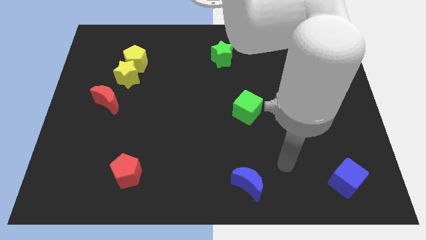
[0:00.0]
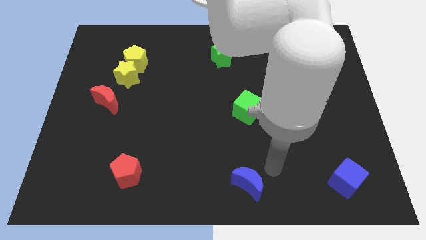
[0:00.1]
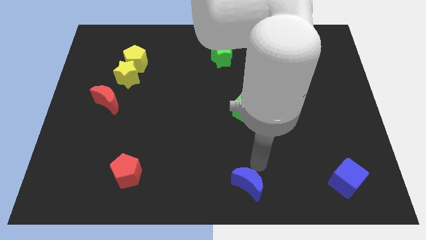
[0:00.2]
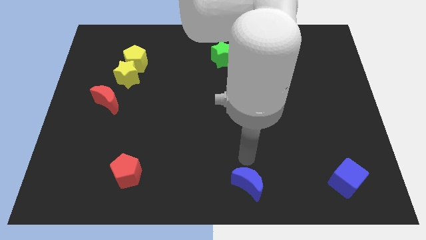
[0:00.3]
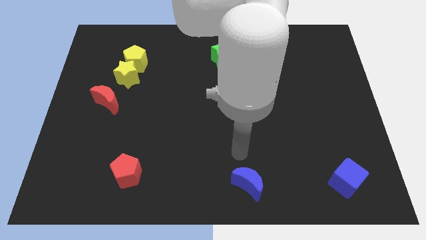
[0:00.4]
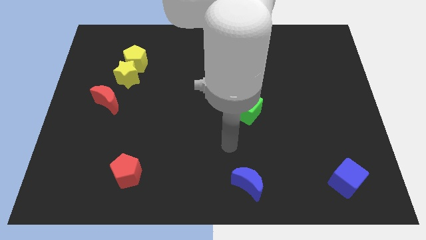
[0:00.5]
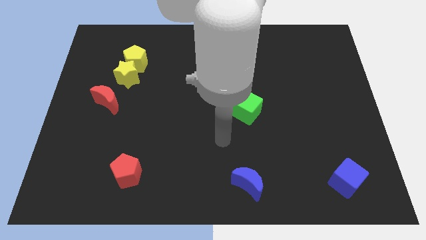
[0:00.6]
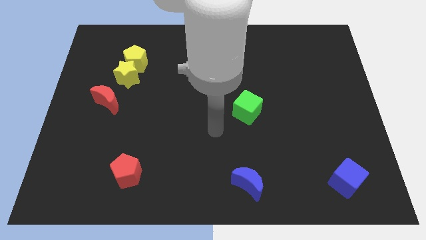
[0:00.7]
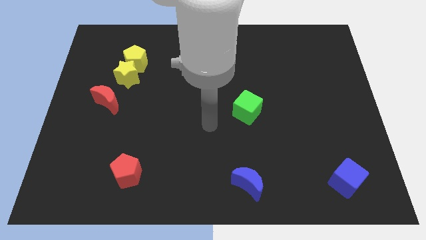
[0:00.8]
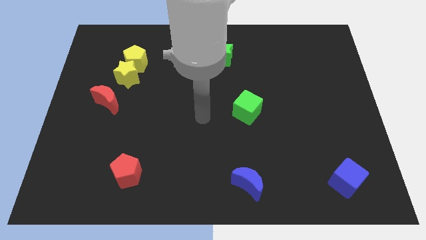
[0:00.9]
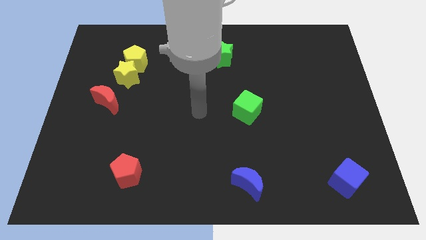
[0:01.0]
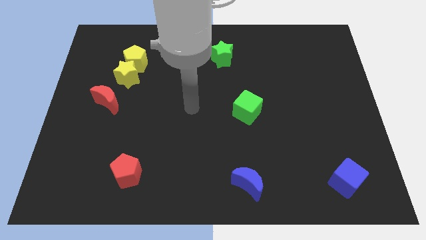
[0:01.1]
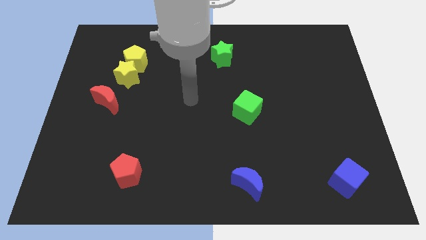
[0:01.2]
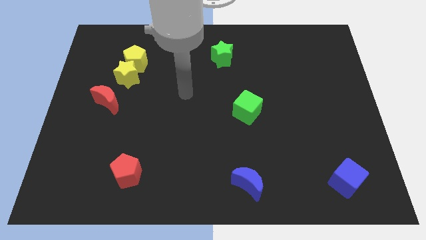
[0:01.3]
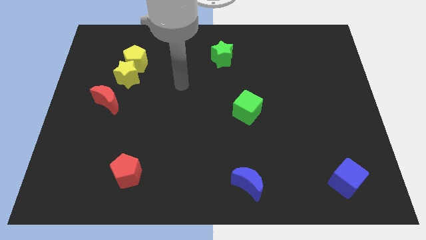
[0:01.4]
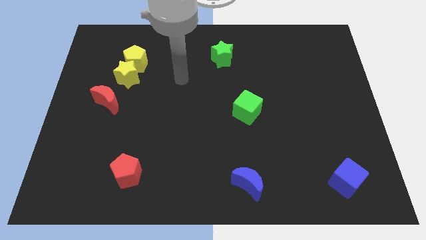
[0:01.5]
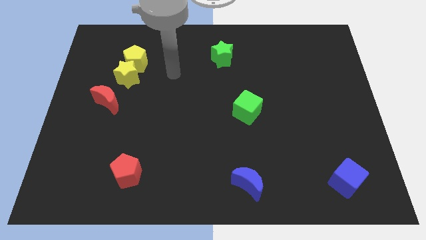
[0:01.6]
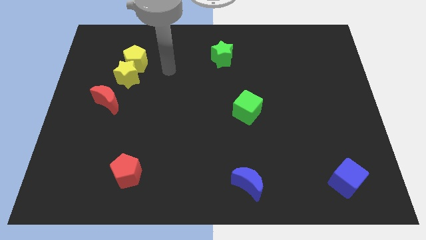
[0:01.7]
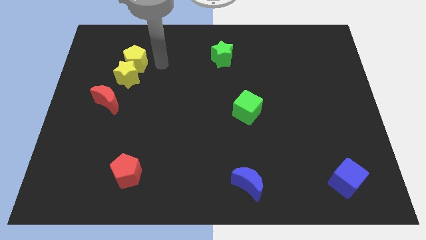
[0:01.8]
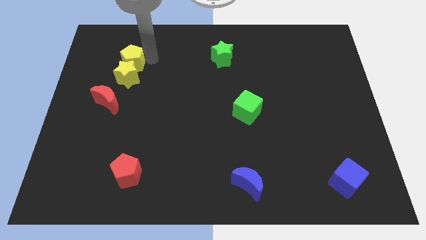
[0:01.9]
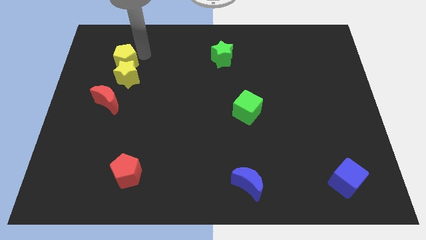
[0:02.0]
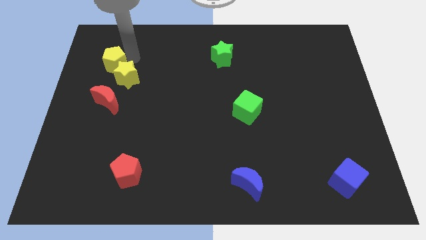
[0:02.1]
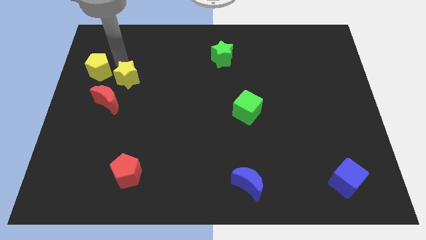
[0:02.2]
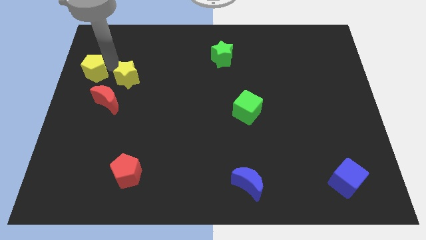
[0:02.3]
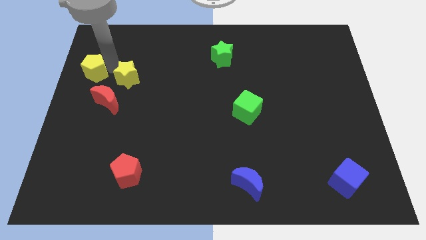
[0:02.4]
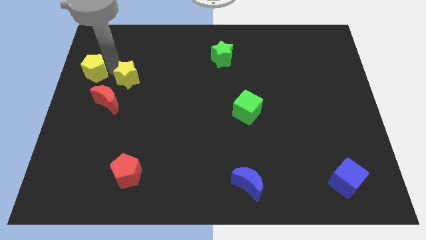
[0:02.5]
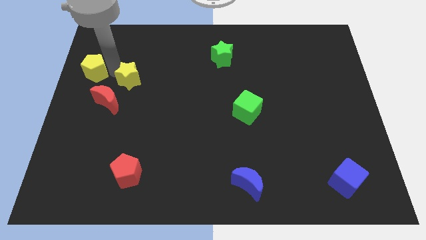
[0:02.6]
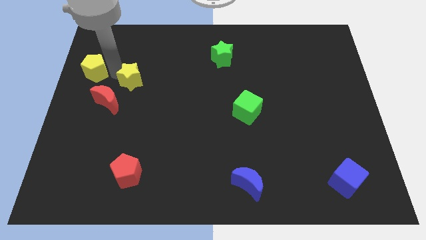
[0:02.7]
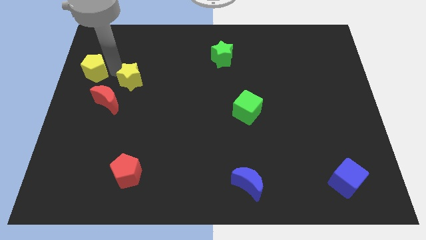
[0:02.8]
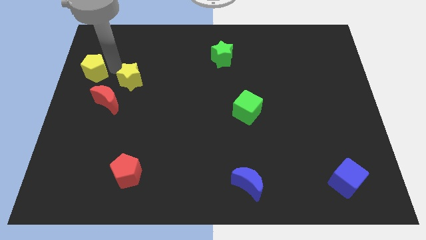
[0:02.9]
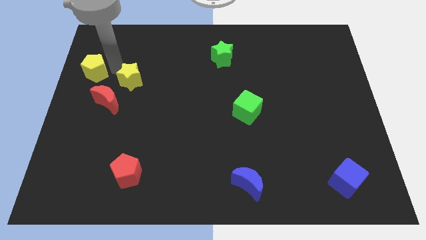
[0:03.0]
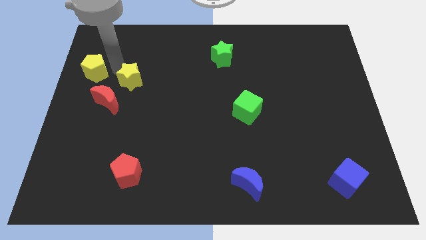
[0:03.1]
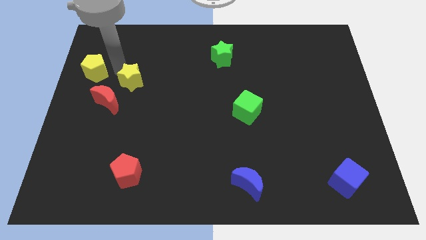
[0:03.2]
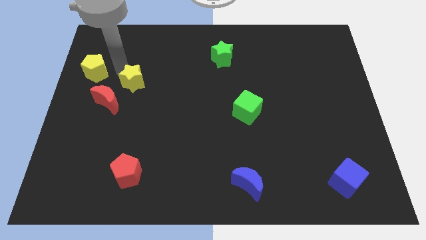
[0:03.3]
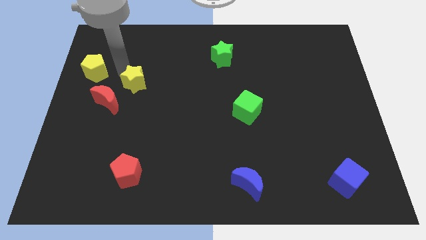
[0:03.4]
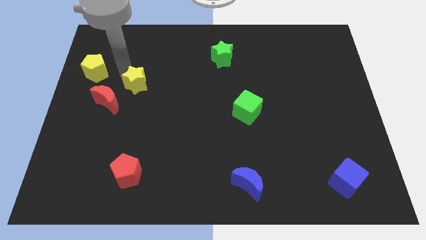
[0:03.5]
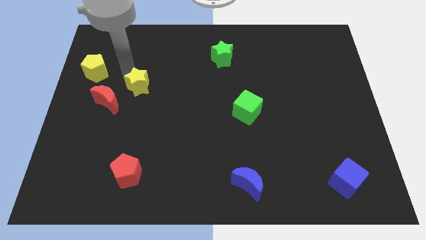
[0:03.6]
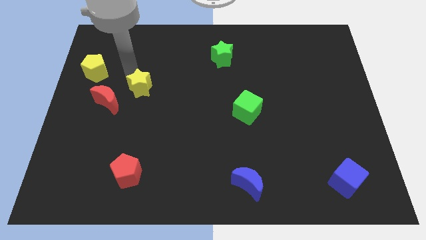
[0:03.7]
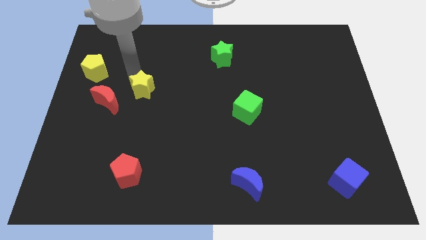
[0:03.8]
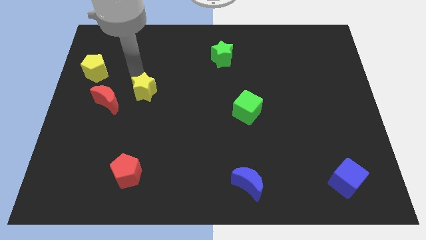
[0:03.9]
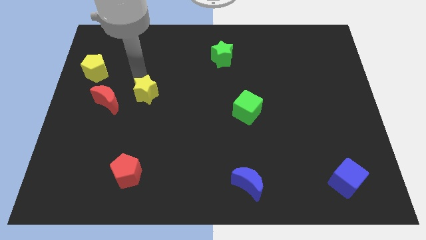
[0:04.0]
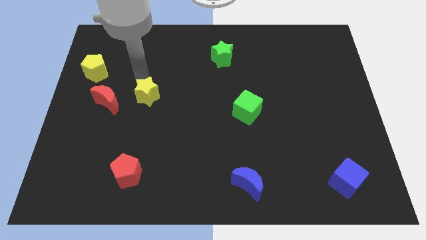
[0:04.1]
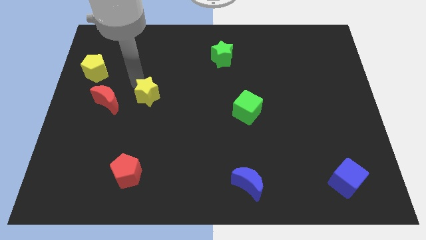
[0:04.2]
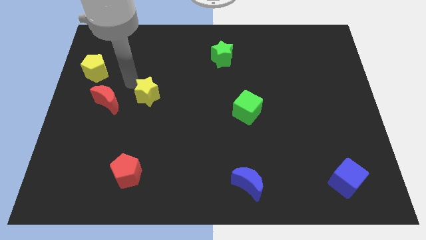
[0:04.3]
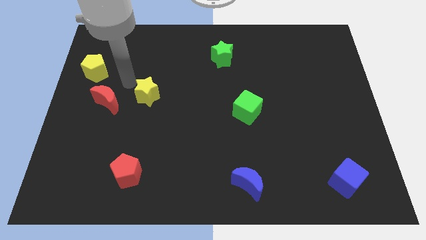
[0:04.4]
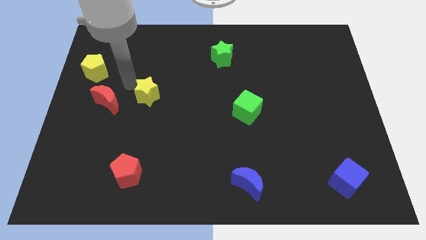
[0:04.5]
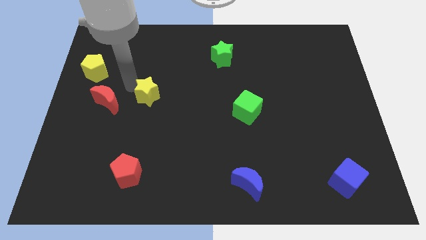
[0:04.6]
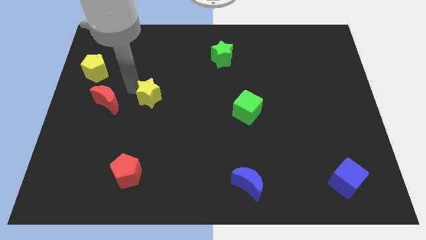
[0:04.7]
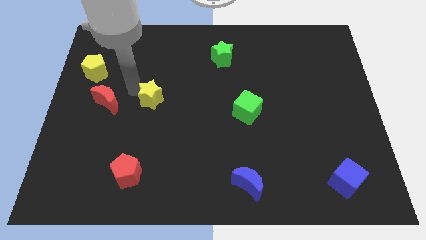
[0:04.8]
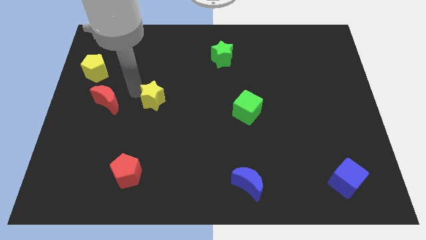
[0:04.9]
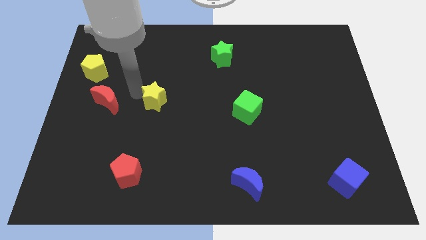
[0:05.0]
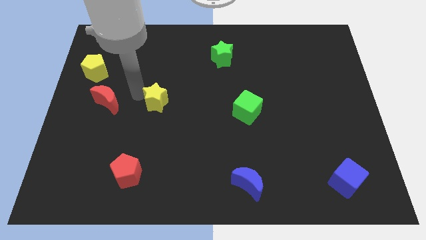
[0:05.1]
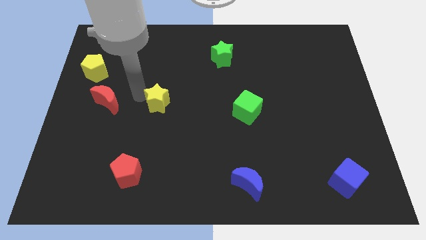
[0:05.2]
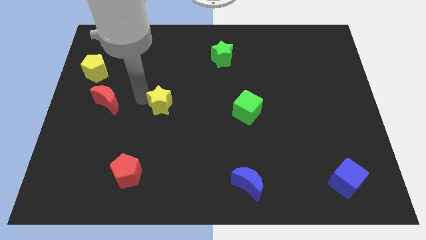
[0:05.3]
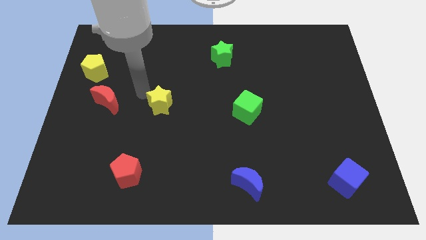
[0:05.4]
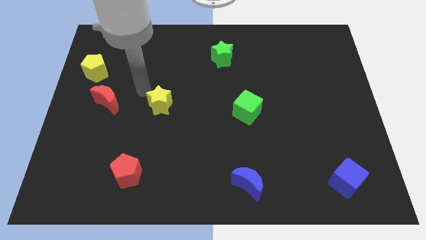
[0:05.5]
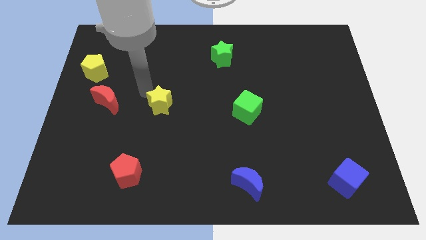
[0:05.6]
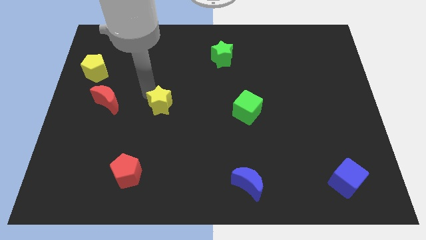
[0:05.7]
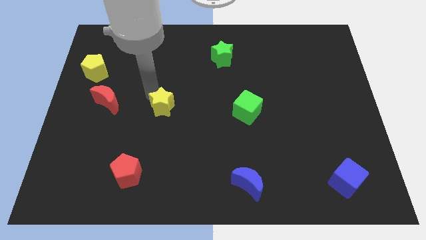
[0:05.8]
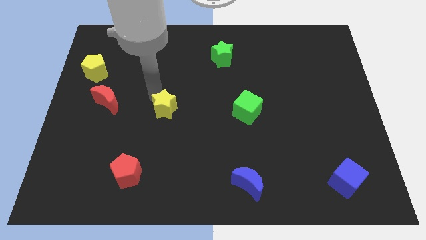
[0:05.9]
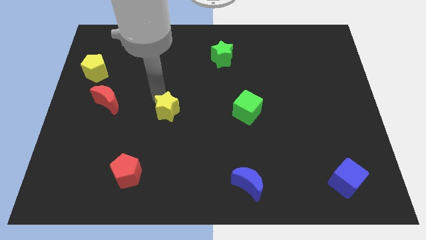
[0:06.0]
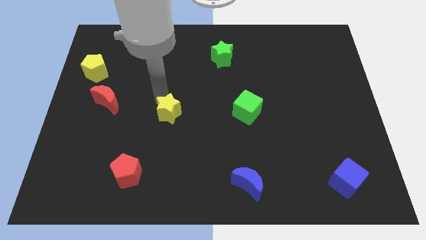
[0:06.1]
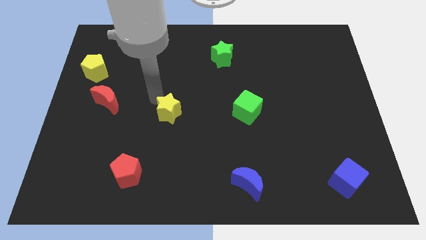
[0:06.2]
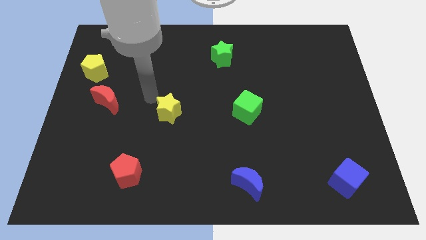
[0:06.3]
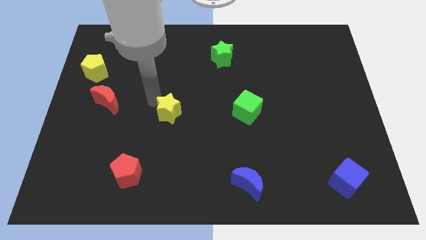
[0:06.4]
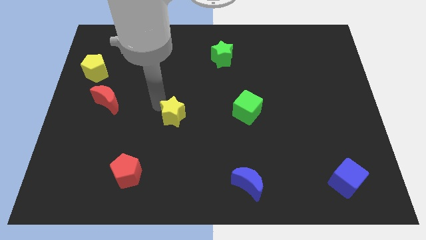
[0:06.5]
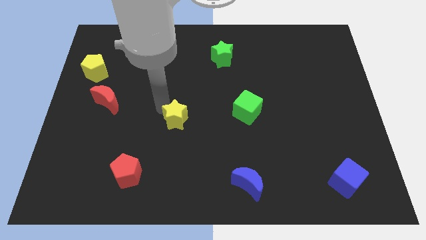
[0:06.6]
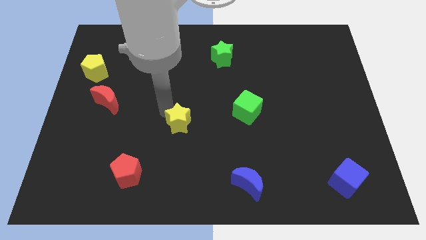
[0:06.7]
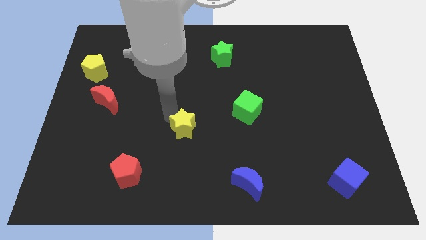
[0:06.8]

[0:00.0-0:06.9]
move the yellow star down and right diagonally

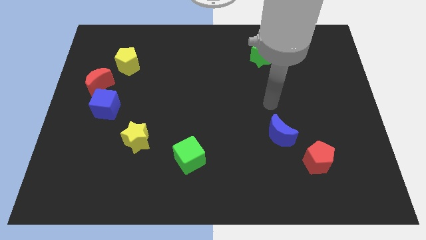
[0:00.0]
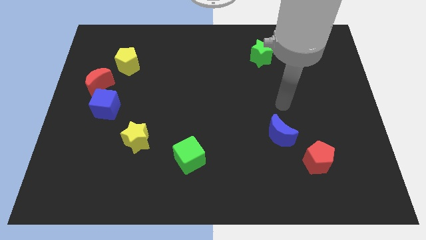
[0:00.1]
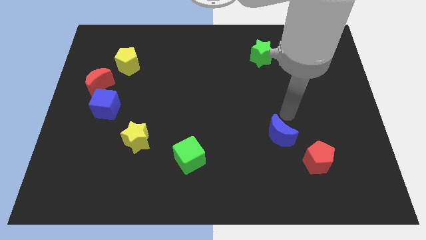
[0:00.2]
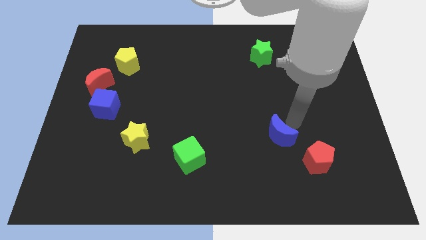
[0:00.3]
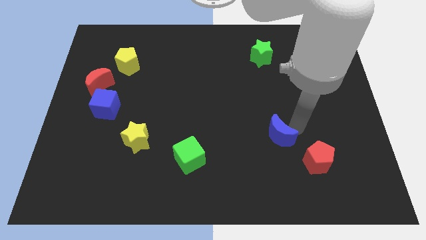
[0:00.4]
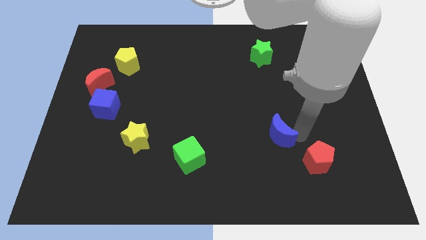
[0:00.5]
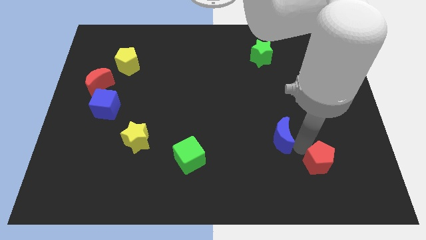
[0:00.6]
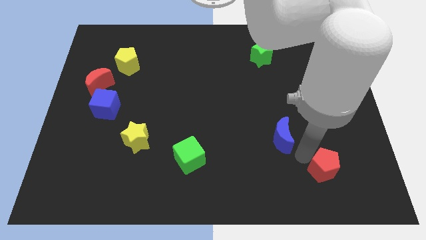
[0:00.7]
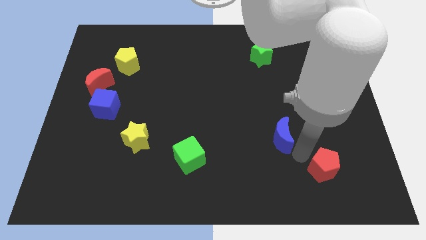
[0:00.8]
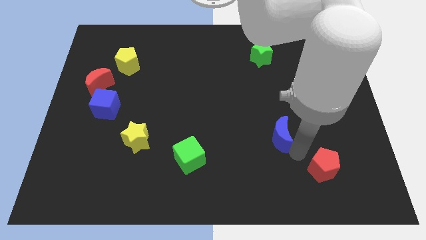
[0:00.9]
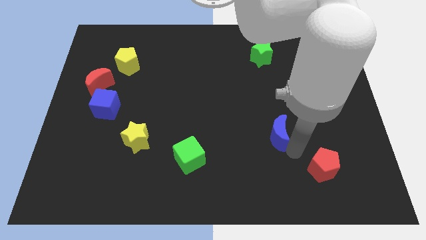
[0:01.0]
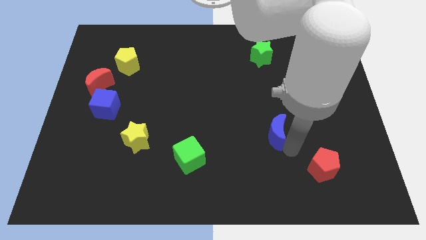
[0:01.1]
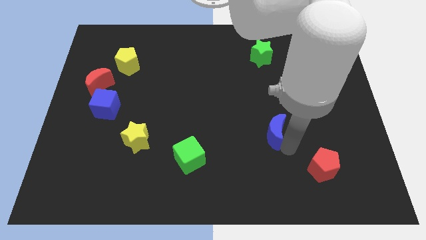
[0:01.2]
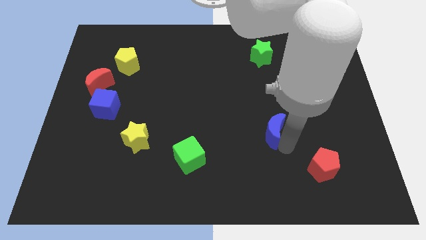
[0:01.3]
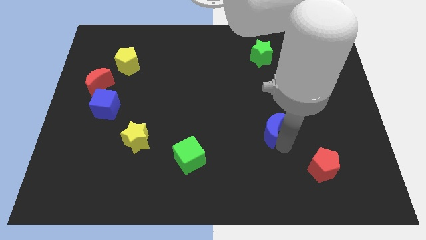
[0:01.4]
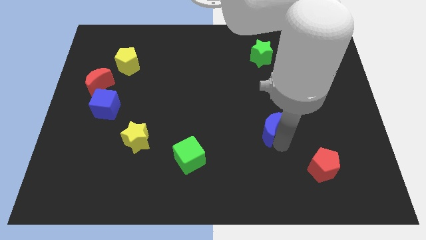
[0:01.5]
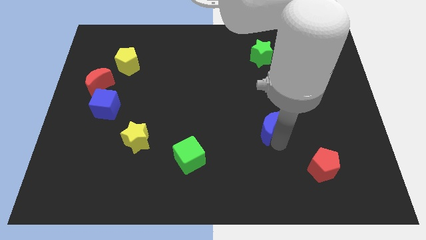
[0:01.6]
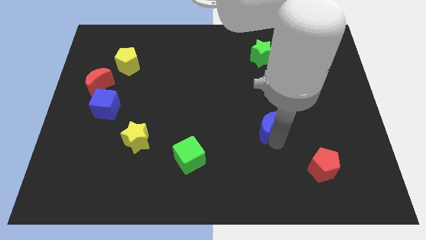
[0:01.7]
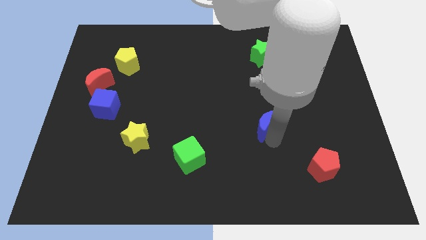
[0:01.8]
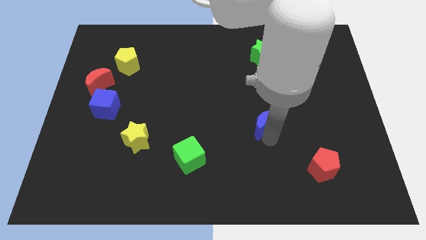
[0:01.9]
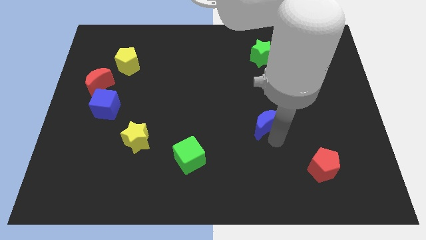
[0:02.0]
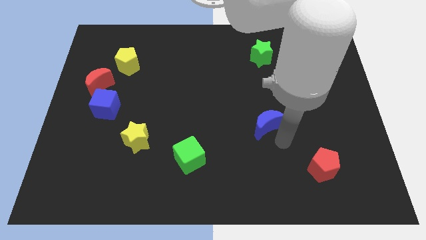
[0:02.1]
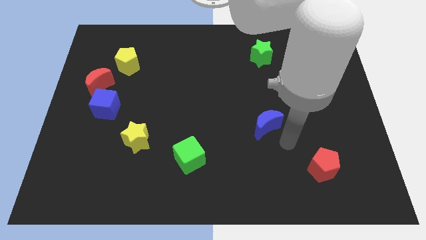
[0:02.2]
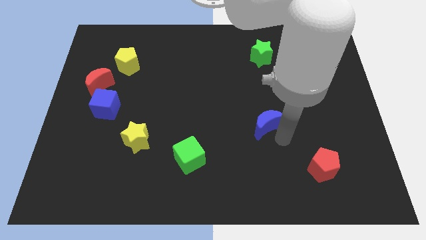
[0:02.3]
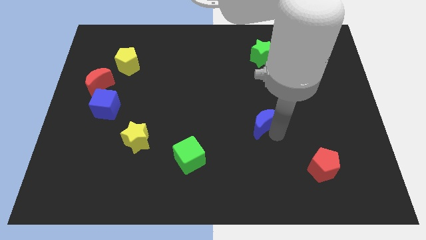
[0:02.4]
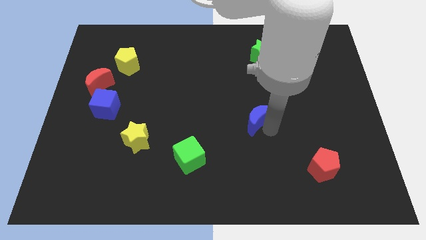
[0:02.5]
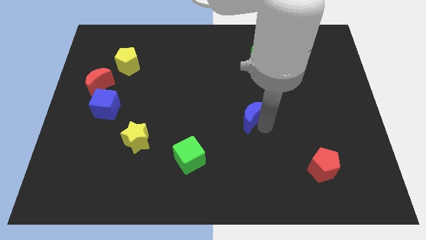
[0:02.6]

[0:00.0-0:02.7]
slightly slide the blue moon upwards and left
